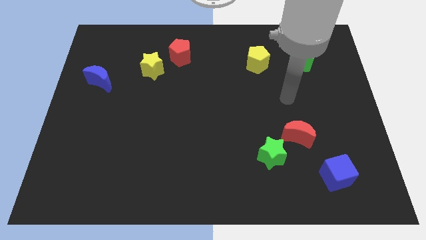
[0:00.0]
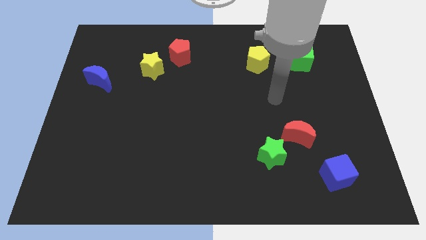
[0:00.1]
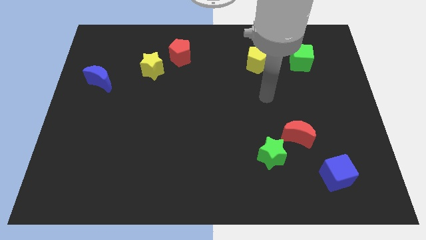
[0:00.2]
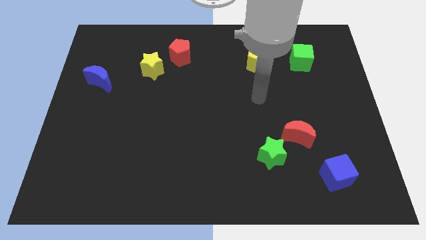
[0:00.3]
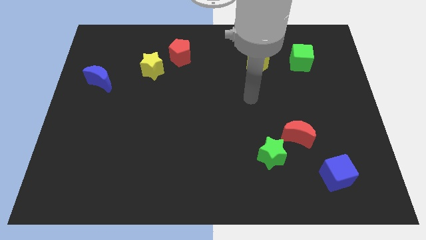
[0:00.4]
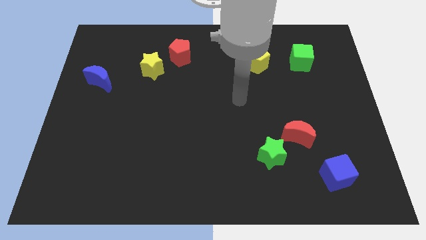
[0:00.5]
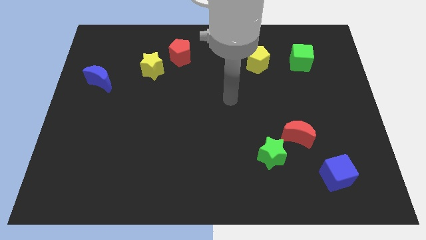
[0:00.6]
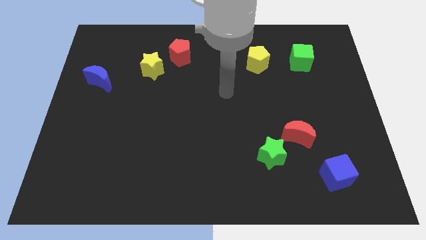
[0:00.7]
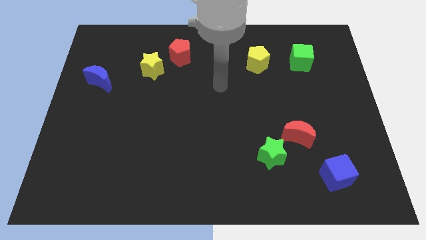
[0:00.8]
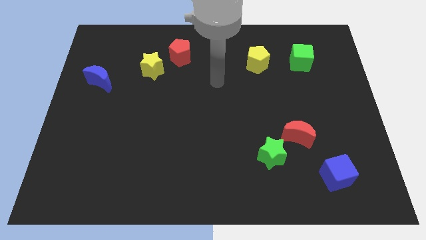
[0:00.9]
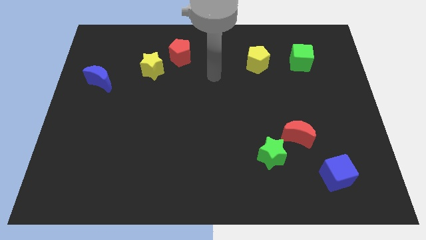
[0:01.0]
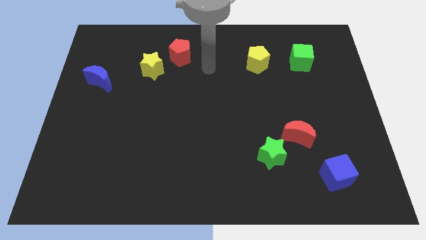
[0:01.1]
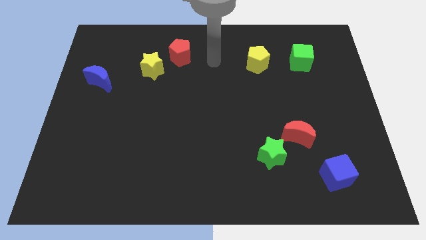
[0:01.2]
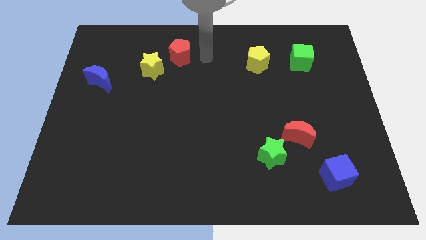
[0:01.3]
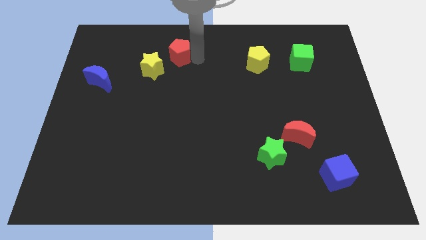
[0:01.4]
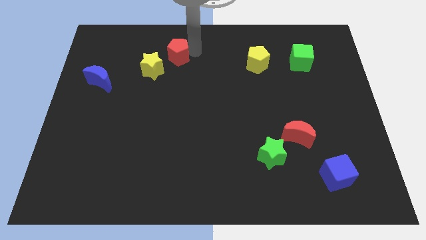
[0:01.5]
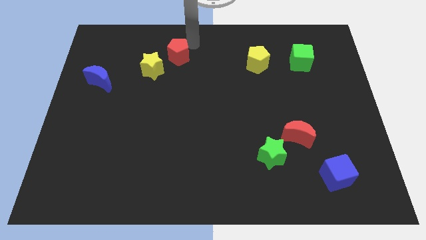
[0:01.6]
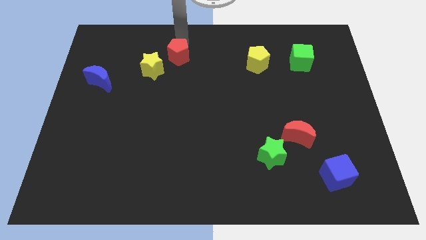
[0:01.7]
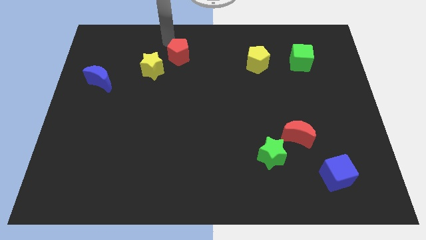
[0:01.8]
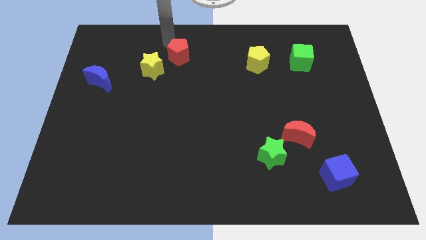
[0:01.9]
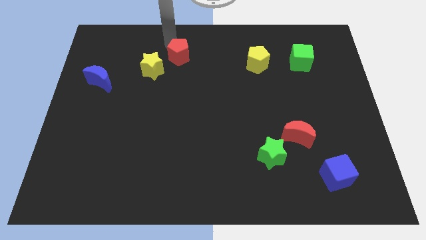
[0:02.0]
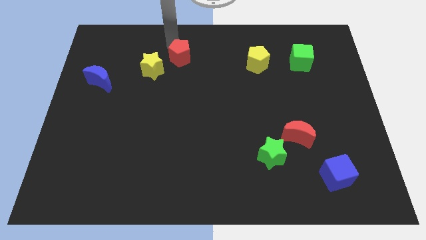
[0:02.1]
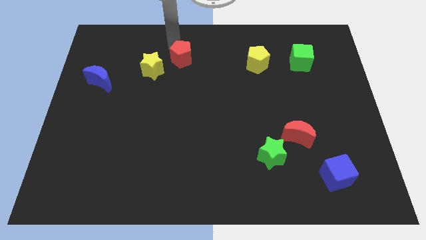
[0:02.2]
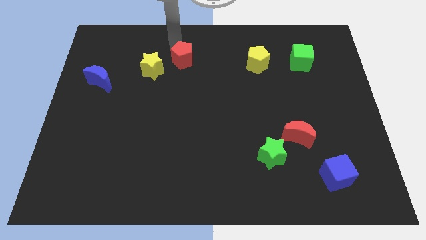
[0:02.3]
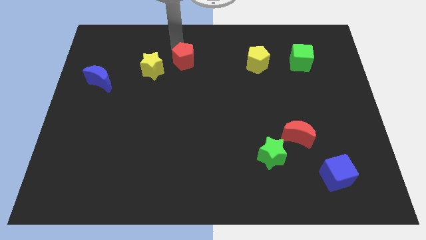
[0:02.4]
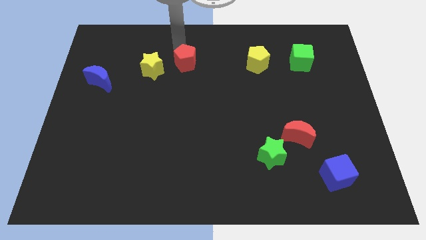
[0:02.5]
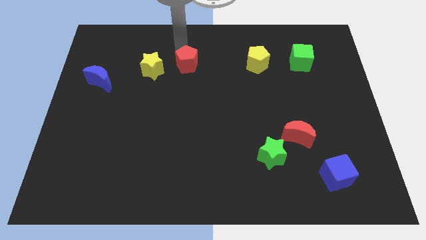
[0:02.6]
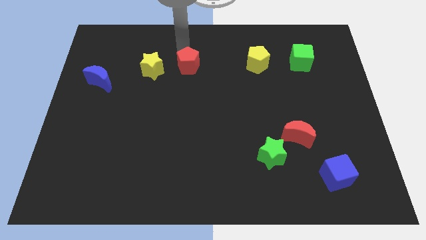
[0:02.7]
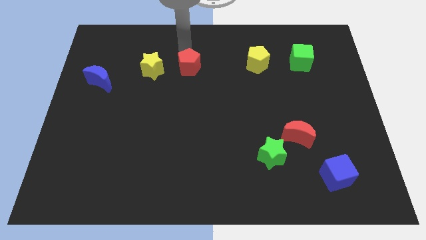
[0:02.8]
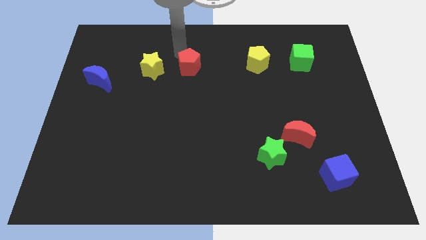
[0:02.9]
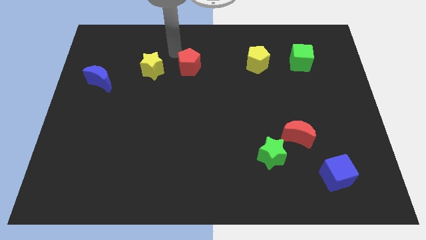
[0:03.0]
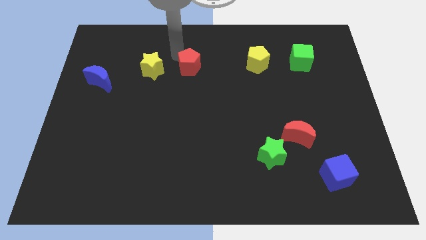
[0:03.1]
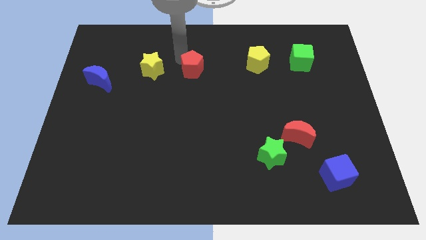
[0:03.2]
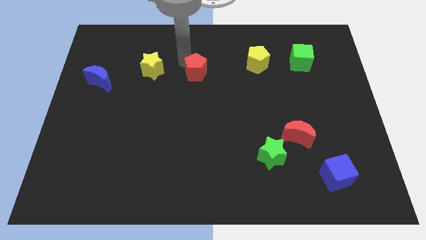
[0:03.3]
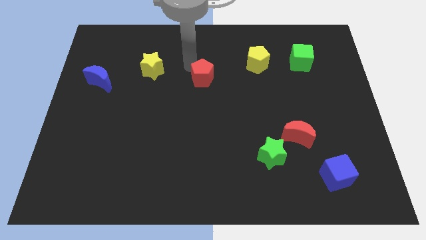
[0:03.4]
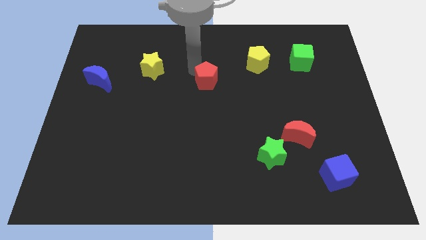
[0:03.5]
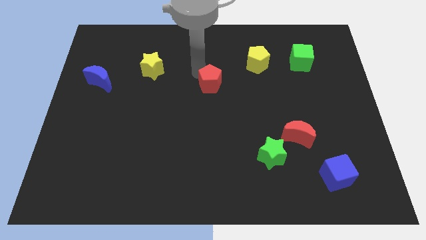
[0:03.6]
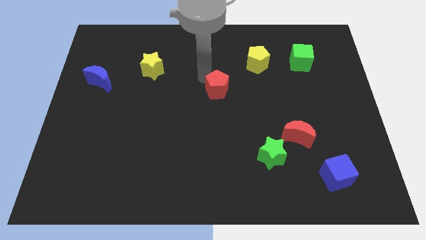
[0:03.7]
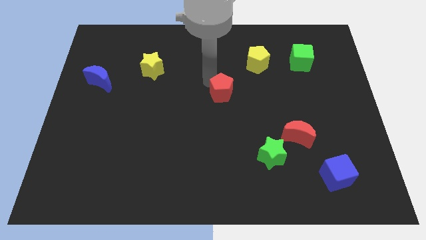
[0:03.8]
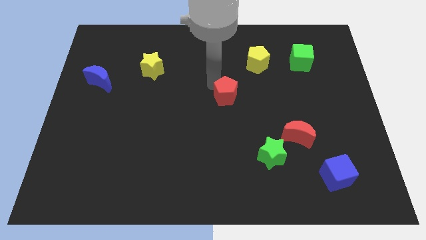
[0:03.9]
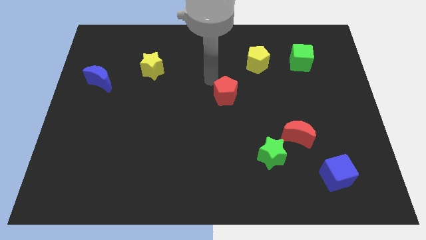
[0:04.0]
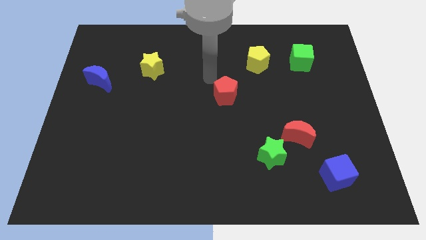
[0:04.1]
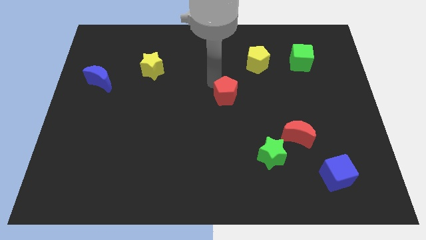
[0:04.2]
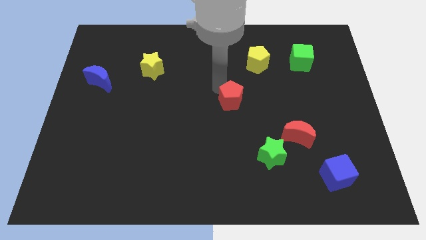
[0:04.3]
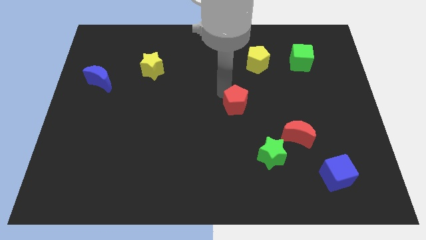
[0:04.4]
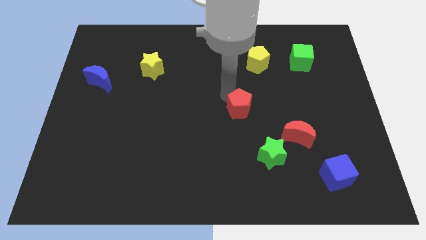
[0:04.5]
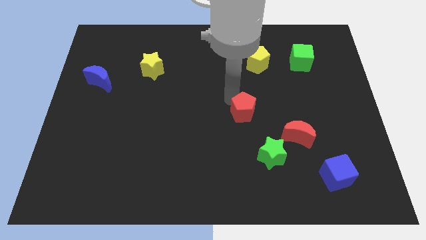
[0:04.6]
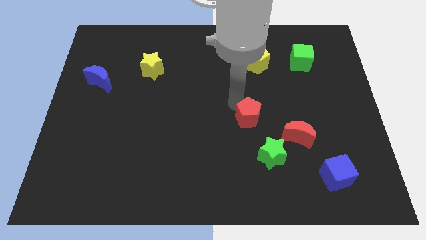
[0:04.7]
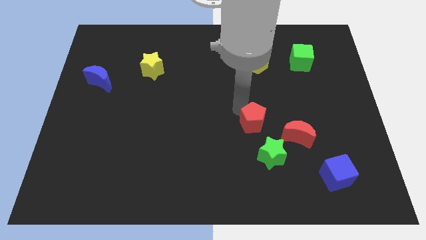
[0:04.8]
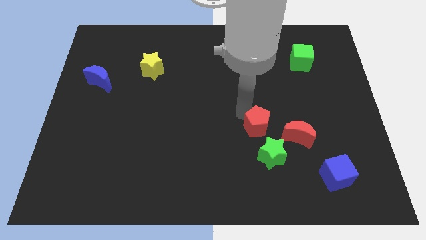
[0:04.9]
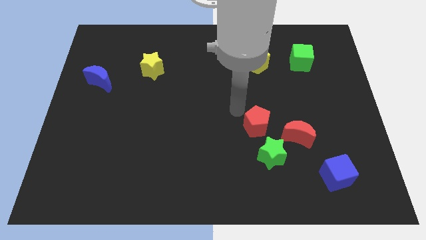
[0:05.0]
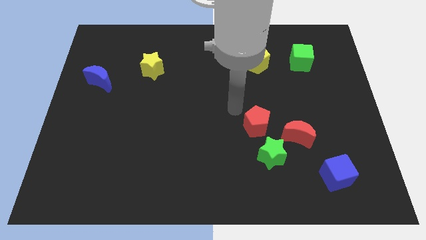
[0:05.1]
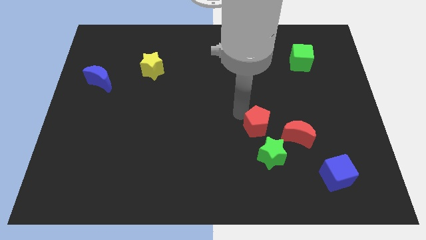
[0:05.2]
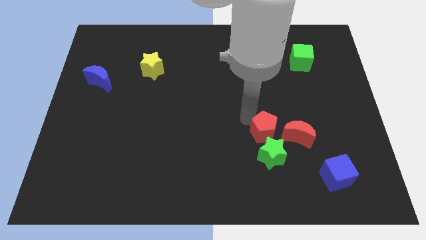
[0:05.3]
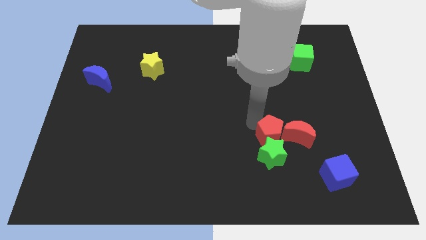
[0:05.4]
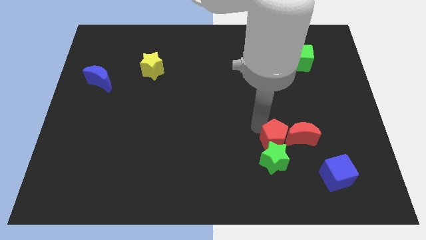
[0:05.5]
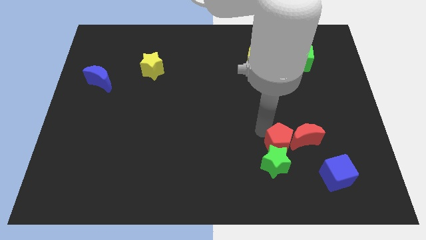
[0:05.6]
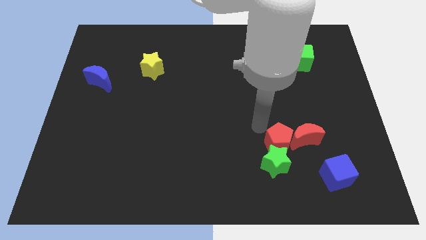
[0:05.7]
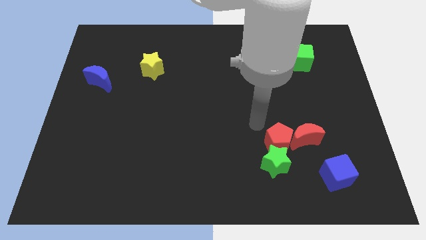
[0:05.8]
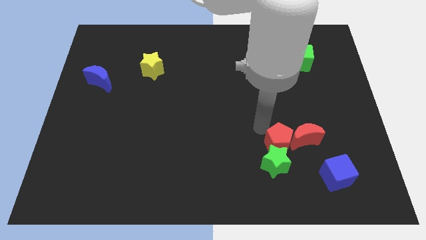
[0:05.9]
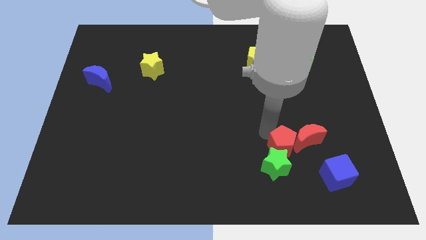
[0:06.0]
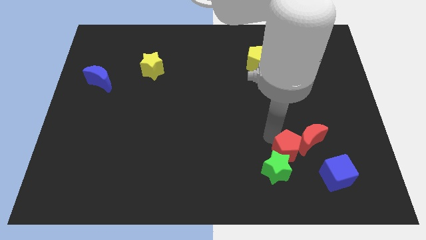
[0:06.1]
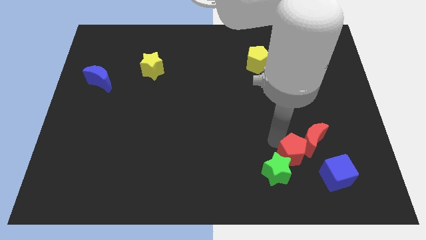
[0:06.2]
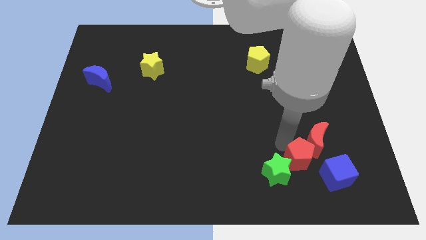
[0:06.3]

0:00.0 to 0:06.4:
move the red pentagon to the left of the blue cube

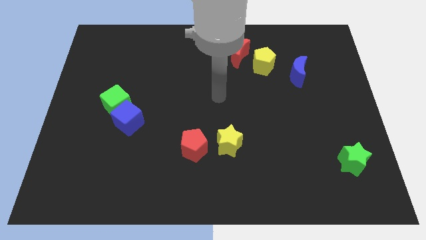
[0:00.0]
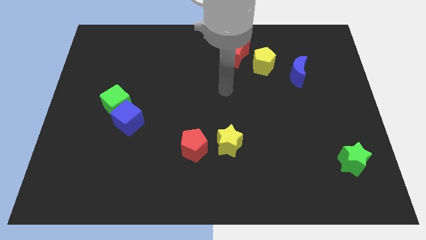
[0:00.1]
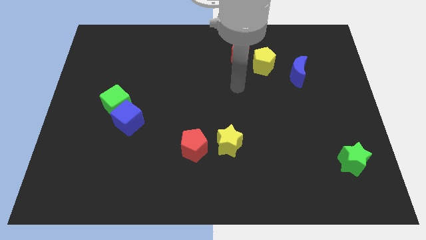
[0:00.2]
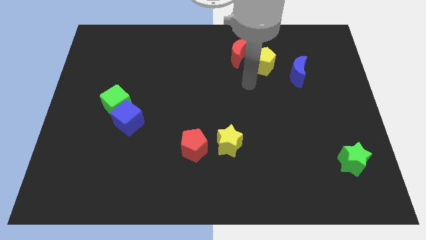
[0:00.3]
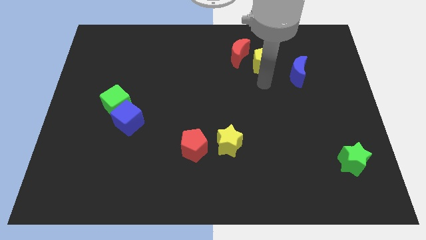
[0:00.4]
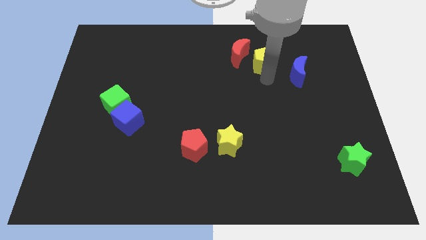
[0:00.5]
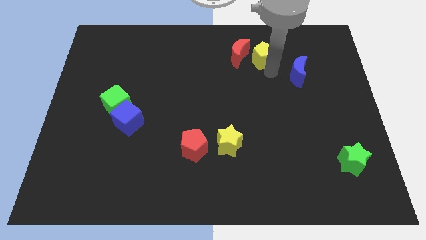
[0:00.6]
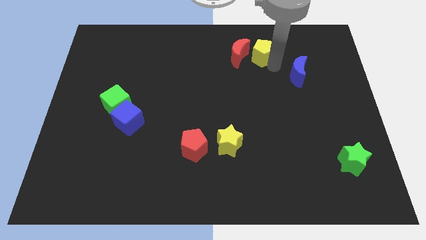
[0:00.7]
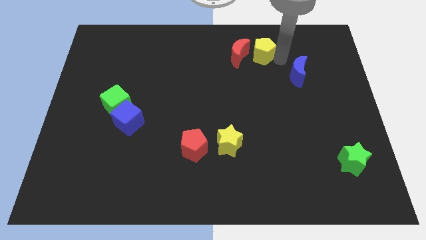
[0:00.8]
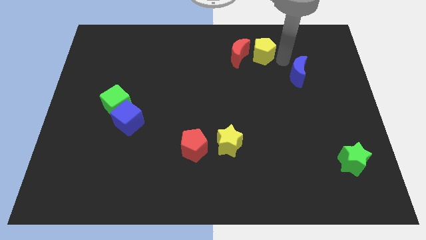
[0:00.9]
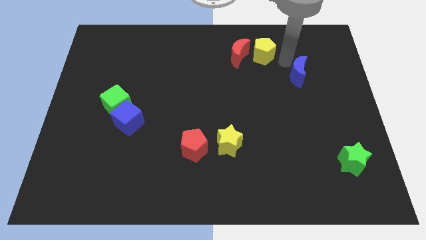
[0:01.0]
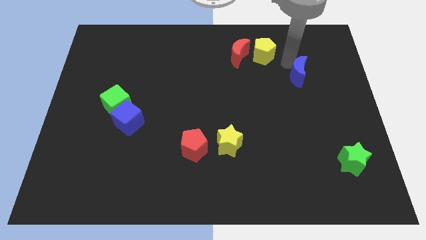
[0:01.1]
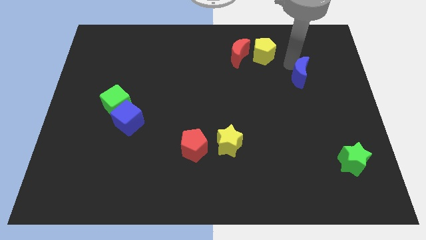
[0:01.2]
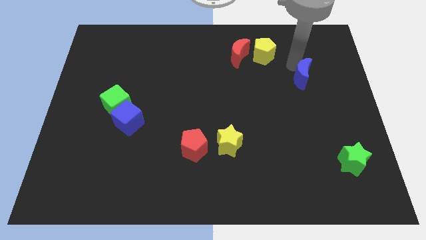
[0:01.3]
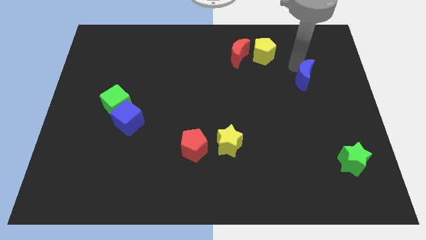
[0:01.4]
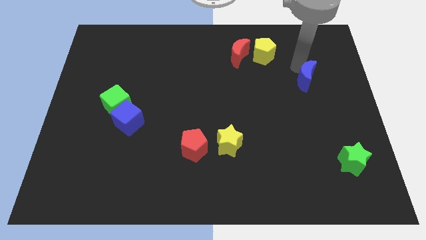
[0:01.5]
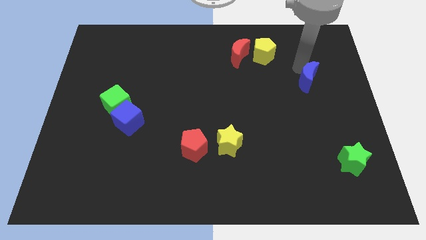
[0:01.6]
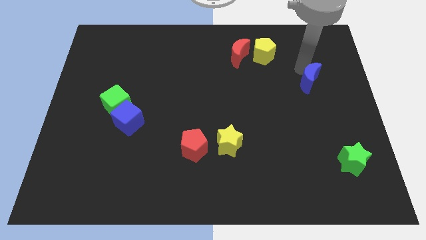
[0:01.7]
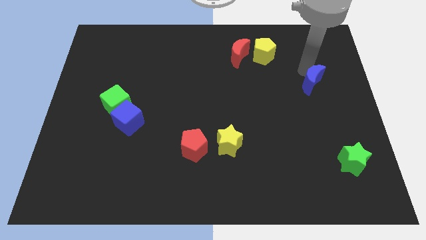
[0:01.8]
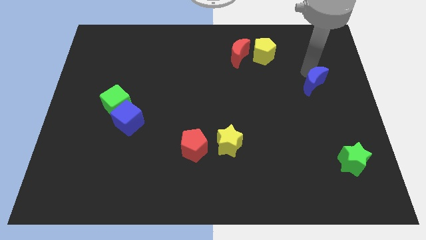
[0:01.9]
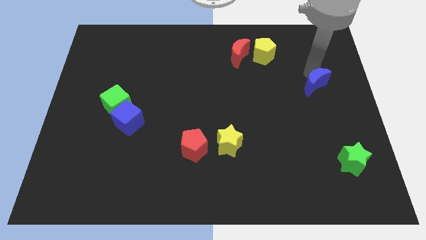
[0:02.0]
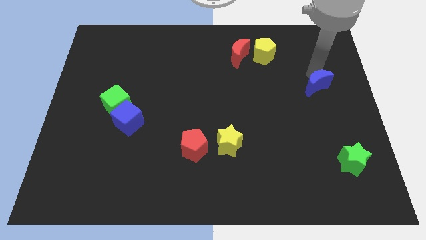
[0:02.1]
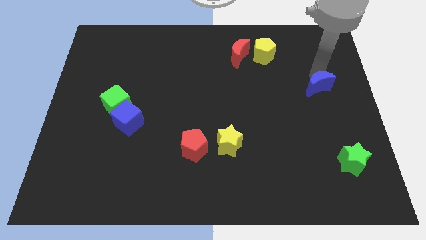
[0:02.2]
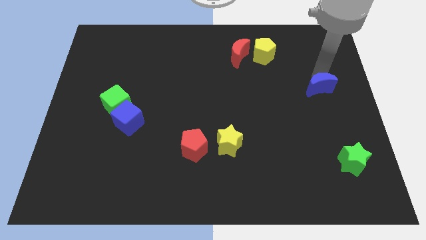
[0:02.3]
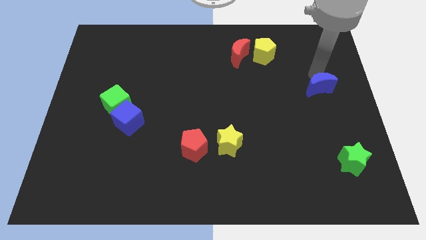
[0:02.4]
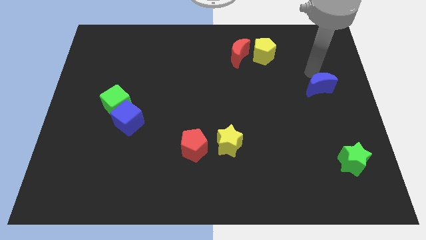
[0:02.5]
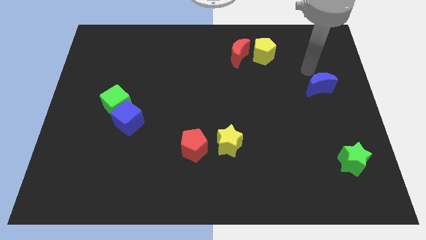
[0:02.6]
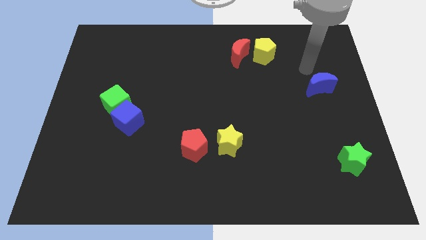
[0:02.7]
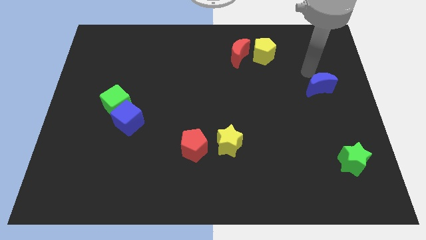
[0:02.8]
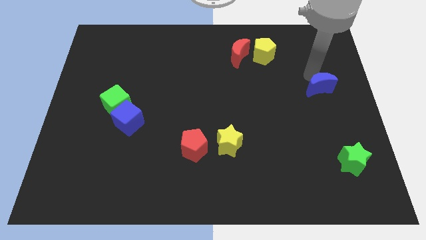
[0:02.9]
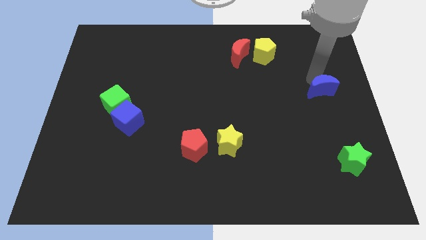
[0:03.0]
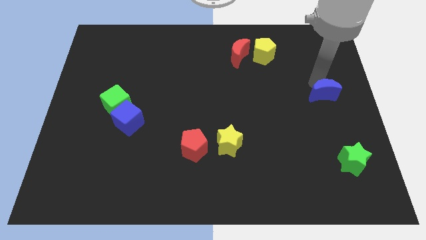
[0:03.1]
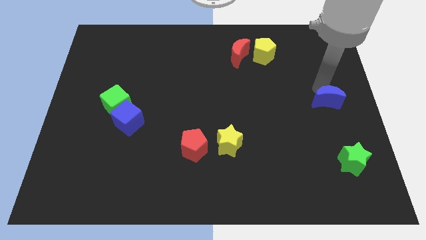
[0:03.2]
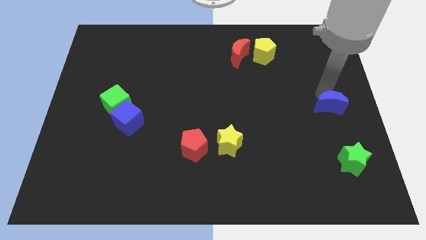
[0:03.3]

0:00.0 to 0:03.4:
push the blue moon above the green star
